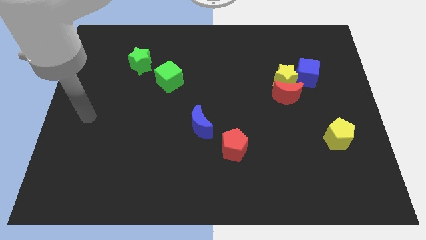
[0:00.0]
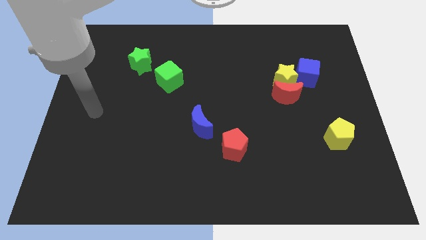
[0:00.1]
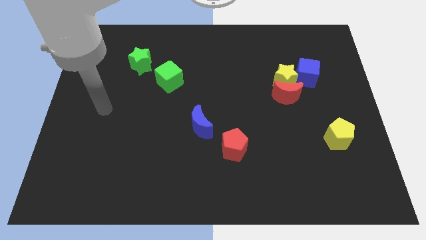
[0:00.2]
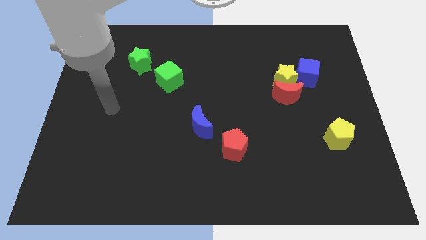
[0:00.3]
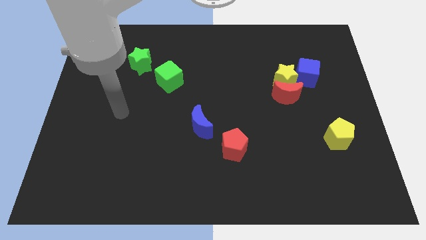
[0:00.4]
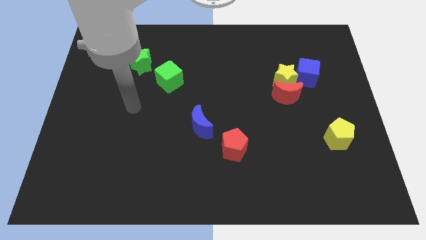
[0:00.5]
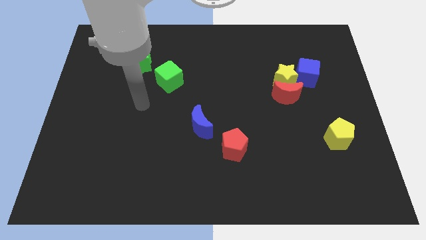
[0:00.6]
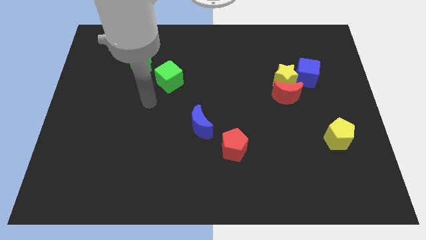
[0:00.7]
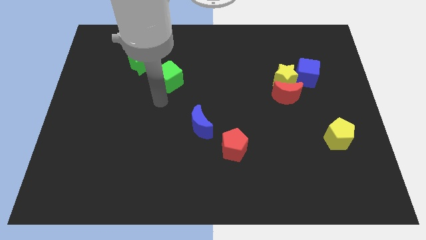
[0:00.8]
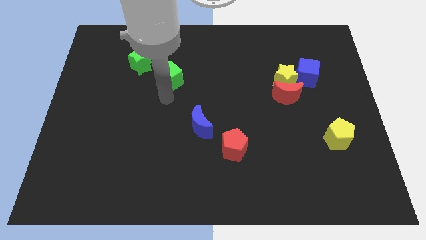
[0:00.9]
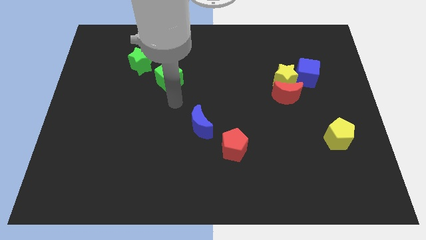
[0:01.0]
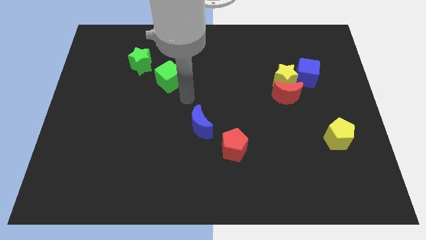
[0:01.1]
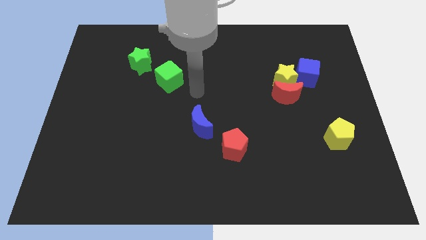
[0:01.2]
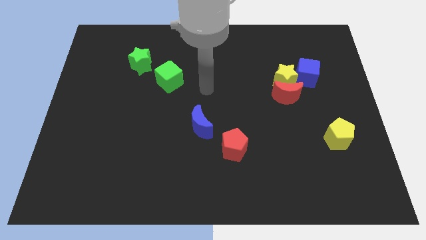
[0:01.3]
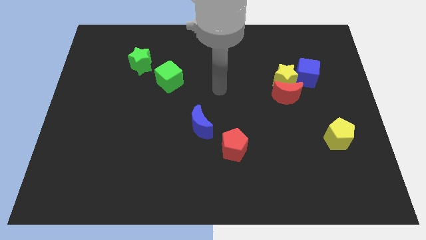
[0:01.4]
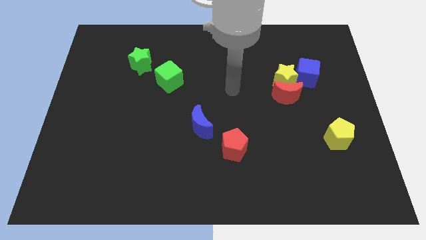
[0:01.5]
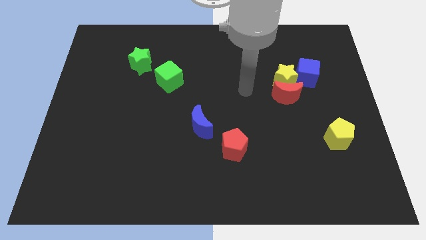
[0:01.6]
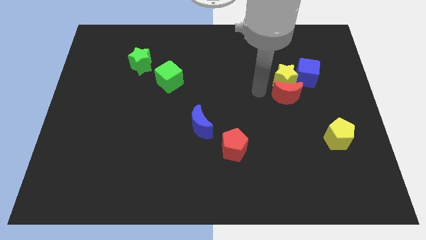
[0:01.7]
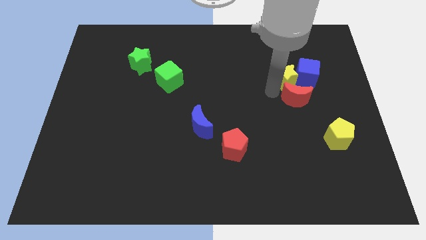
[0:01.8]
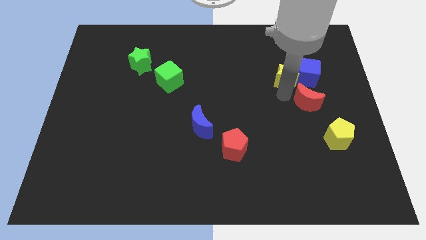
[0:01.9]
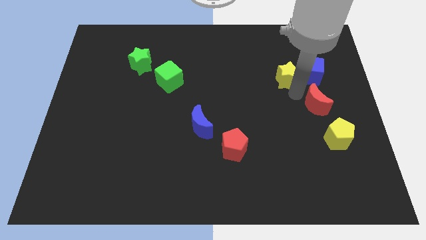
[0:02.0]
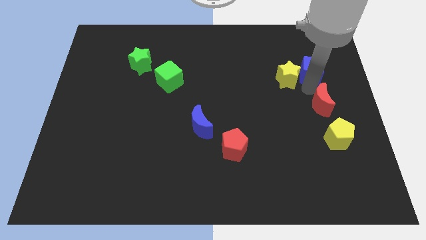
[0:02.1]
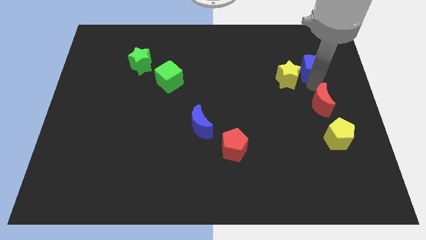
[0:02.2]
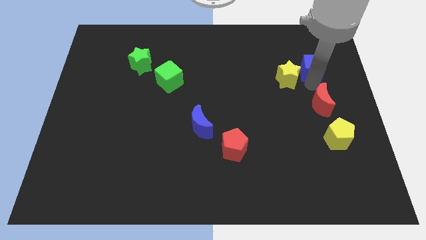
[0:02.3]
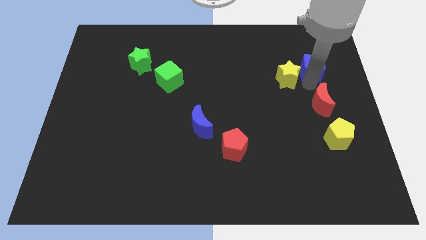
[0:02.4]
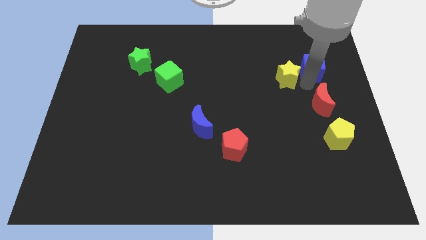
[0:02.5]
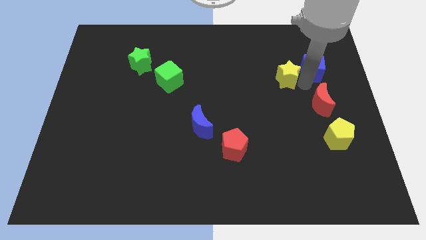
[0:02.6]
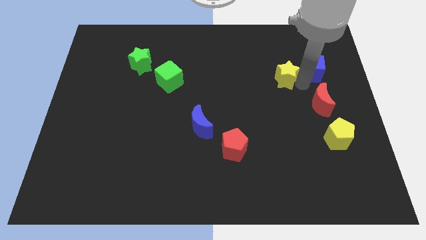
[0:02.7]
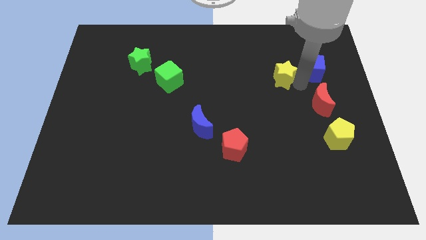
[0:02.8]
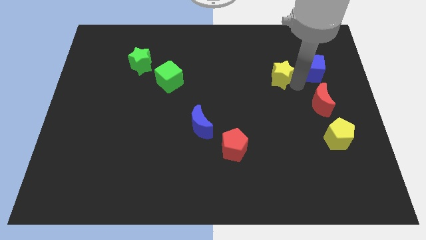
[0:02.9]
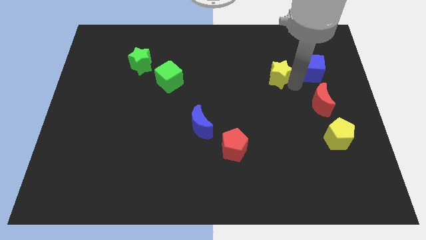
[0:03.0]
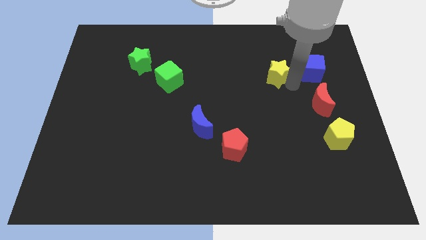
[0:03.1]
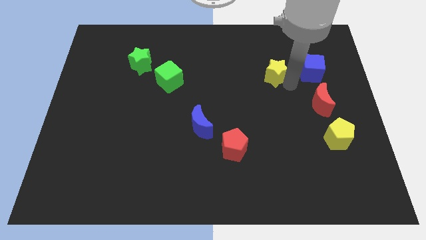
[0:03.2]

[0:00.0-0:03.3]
pull the yellow star apart from the red moon and blue cube

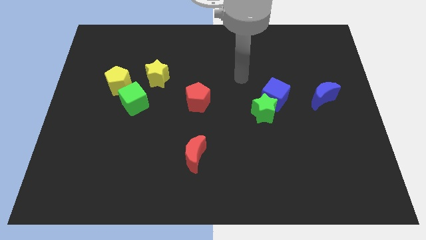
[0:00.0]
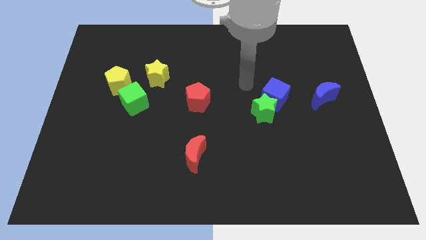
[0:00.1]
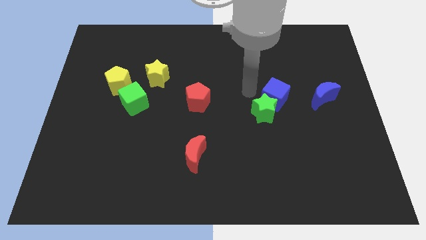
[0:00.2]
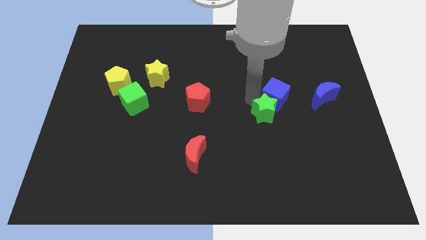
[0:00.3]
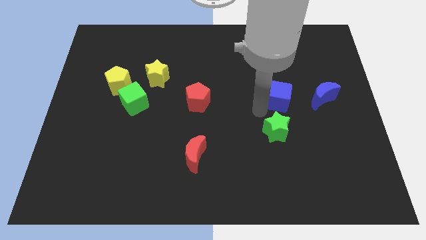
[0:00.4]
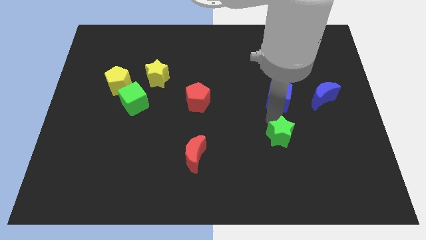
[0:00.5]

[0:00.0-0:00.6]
separate the blue cube from the green star

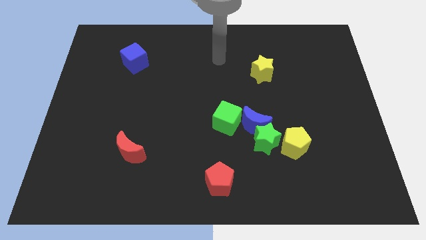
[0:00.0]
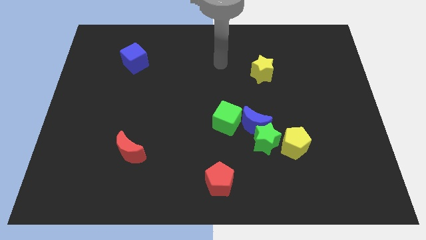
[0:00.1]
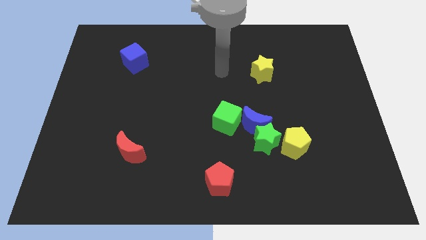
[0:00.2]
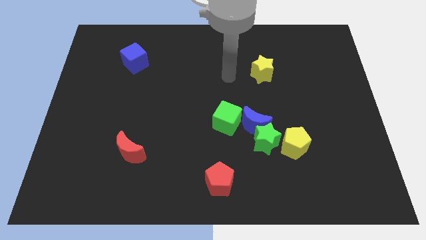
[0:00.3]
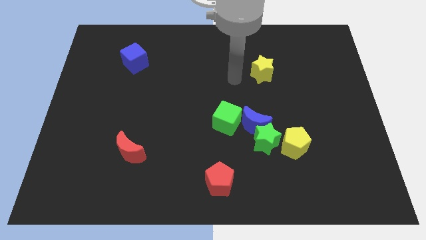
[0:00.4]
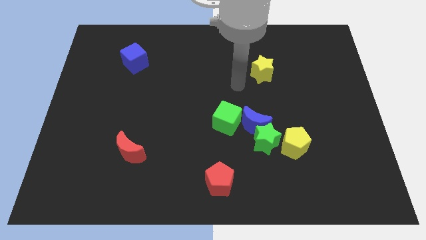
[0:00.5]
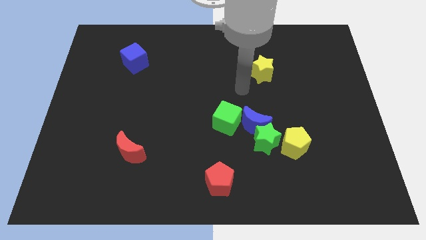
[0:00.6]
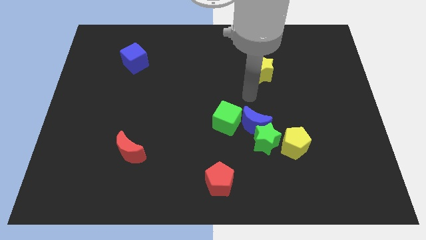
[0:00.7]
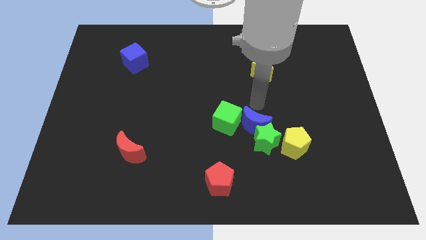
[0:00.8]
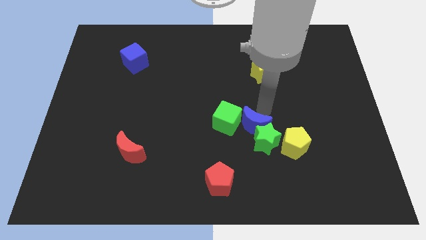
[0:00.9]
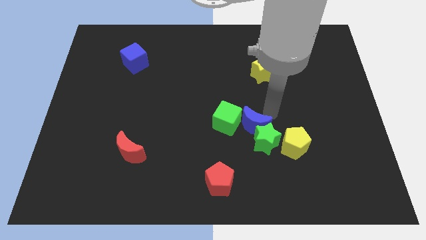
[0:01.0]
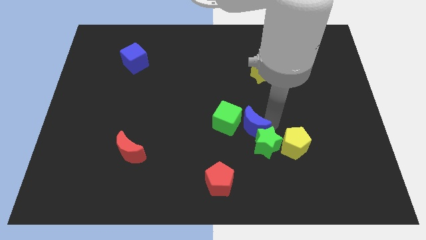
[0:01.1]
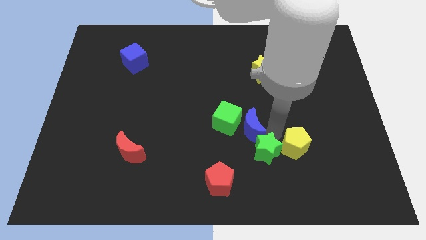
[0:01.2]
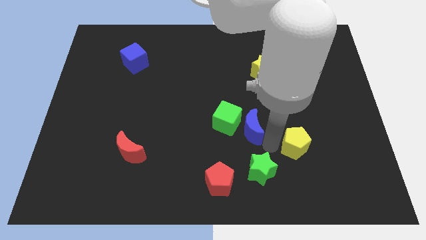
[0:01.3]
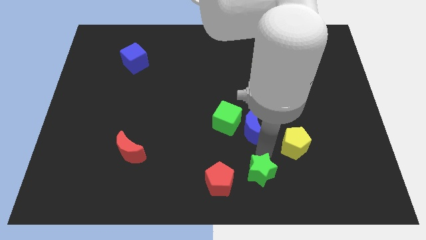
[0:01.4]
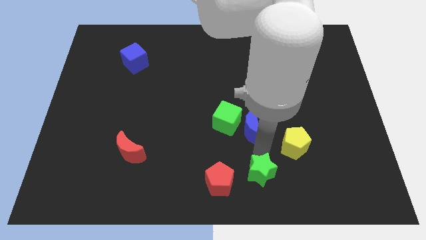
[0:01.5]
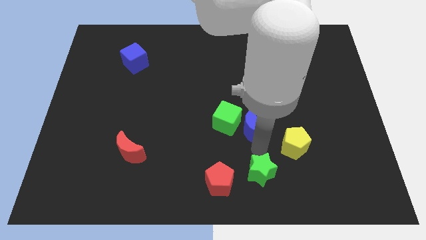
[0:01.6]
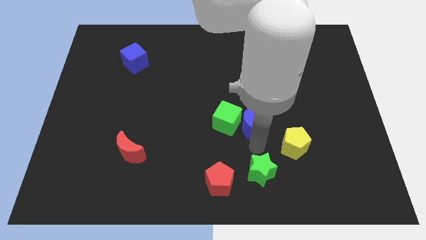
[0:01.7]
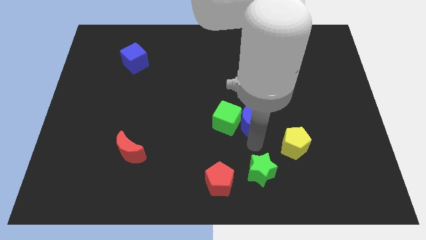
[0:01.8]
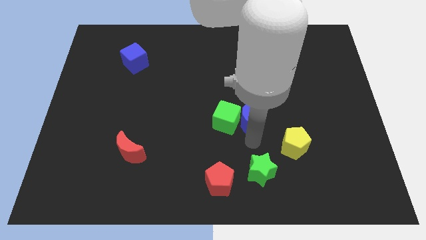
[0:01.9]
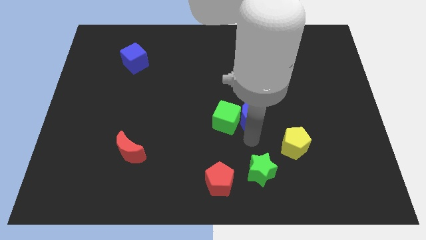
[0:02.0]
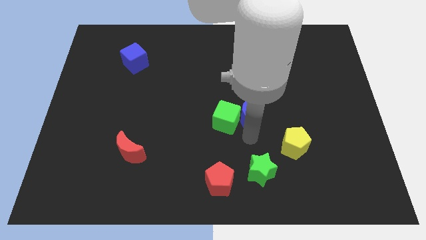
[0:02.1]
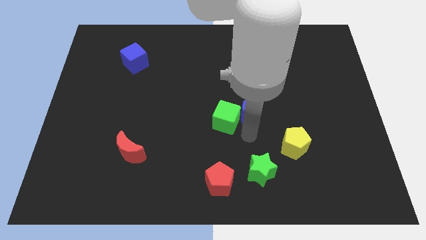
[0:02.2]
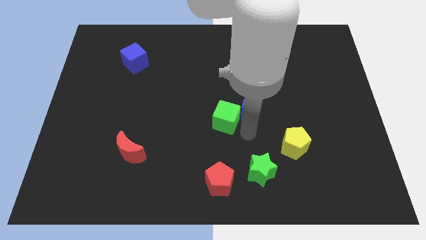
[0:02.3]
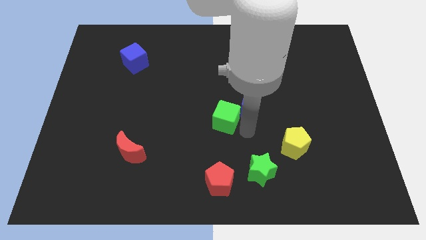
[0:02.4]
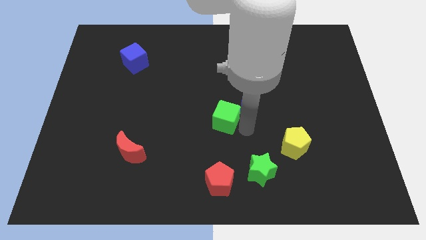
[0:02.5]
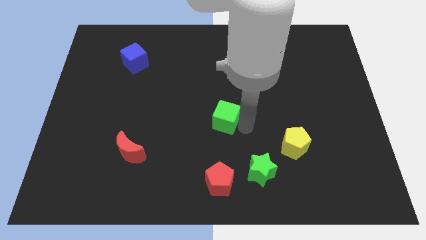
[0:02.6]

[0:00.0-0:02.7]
pull the blue moon apart from the green star, green cube, and yellow pentagon

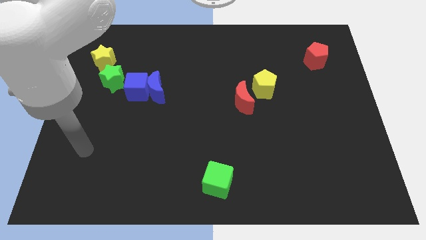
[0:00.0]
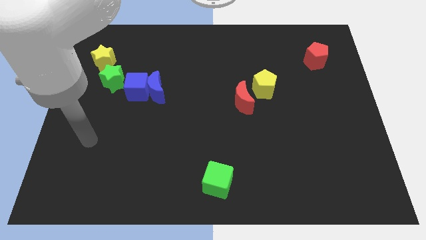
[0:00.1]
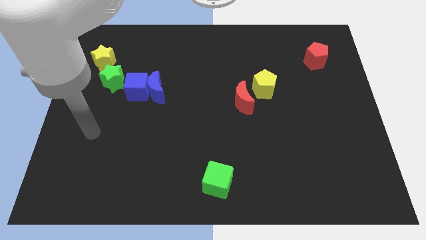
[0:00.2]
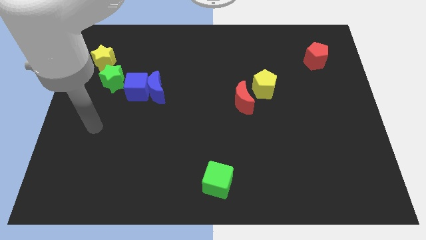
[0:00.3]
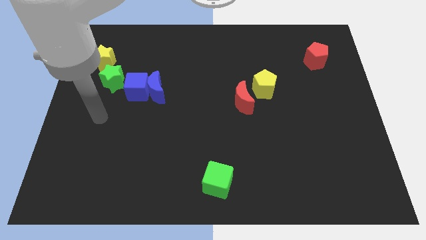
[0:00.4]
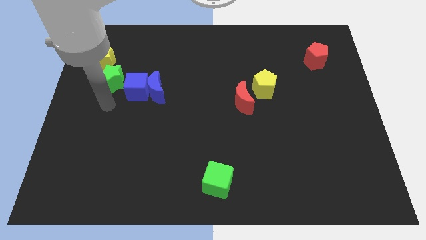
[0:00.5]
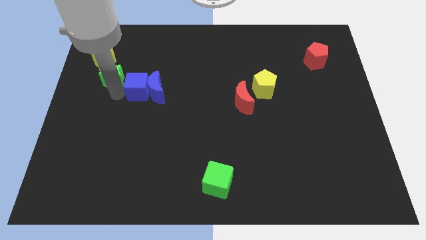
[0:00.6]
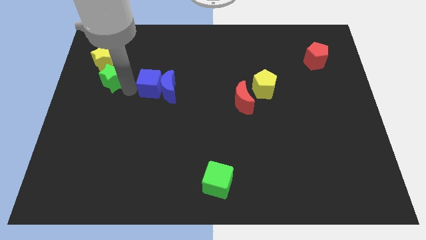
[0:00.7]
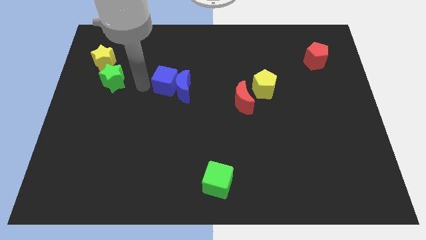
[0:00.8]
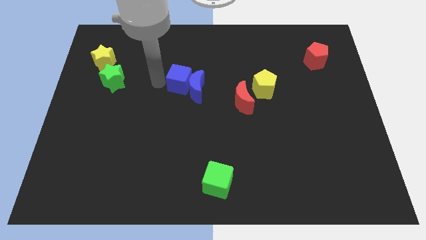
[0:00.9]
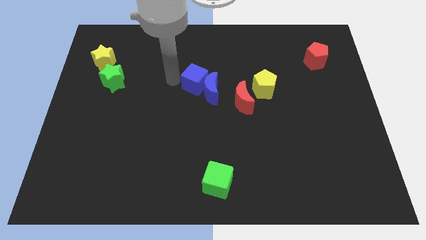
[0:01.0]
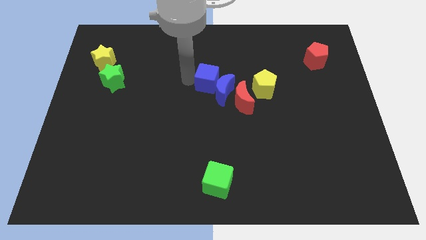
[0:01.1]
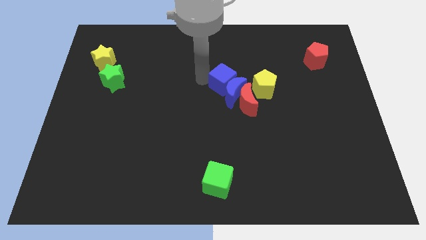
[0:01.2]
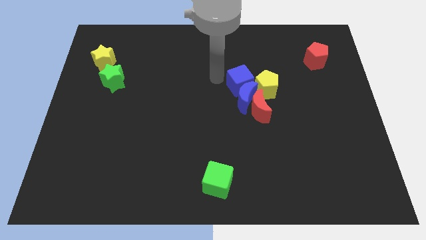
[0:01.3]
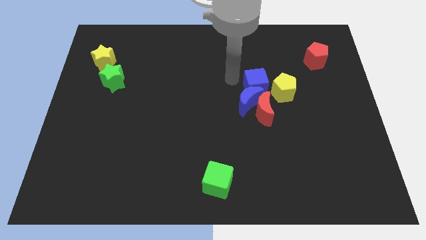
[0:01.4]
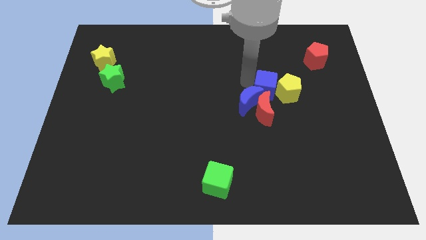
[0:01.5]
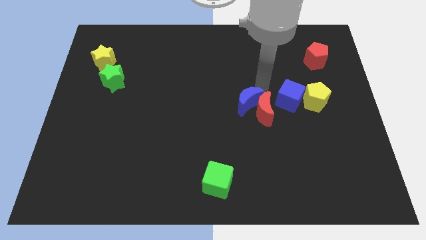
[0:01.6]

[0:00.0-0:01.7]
move the blue moon away from the blue cube

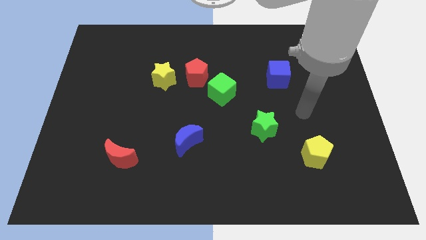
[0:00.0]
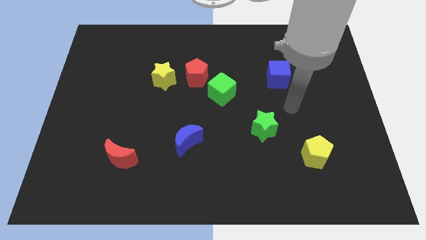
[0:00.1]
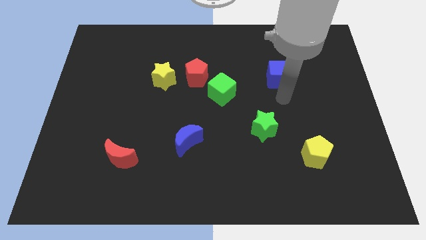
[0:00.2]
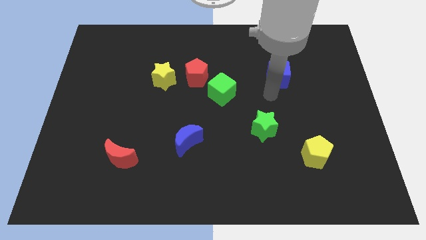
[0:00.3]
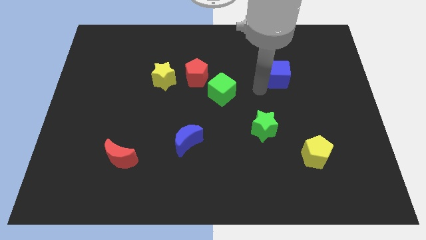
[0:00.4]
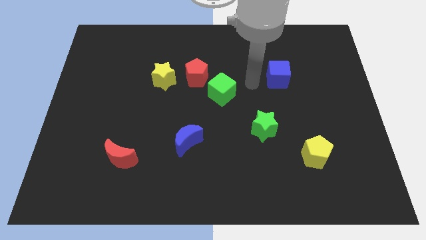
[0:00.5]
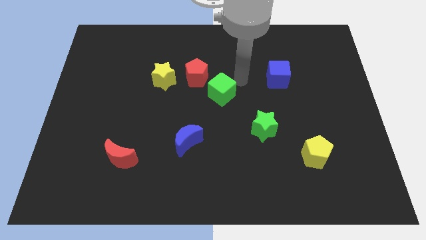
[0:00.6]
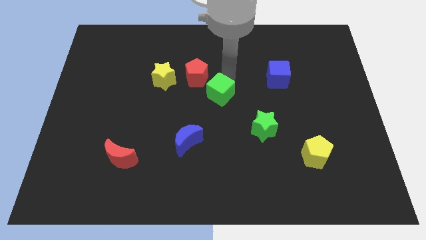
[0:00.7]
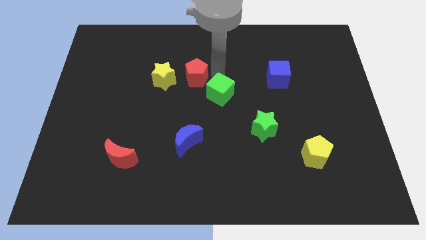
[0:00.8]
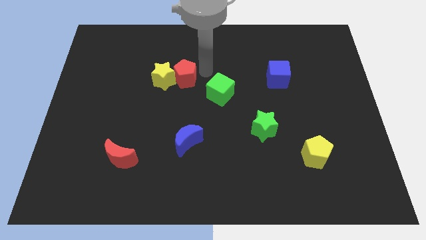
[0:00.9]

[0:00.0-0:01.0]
move the green cube away from the red pentagon
